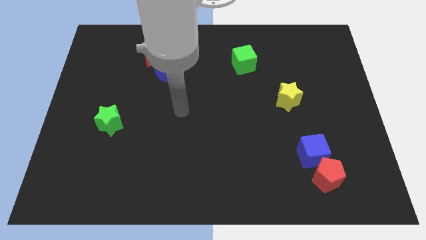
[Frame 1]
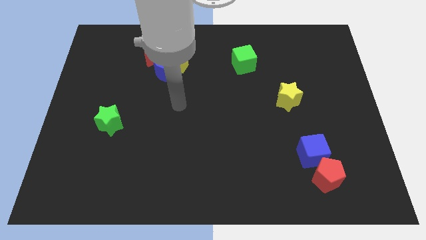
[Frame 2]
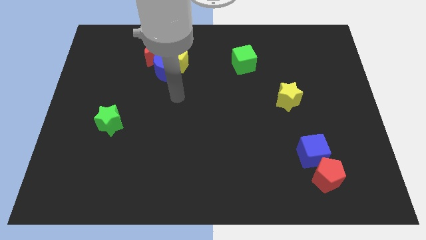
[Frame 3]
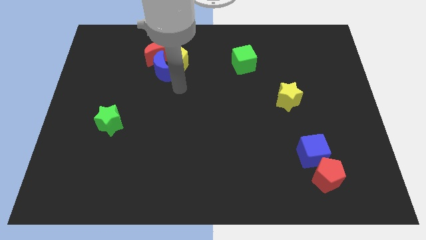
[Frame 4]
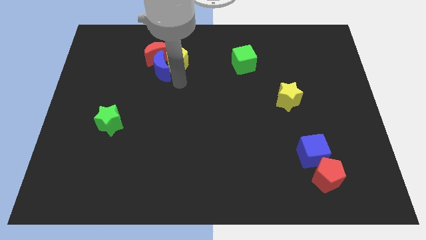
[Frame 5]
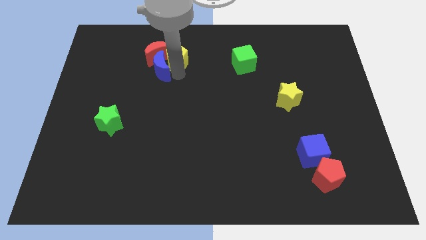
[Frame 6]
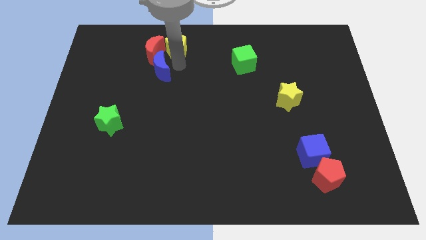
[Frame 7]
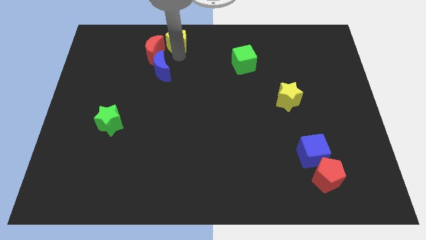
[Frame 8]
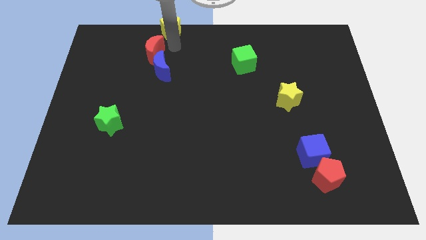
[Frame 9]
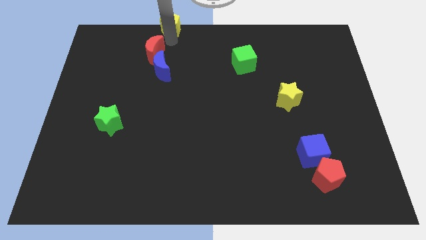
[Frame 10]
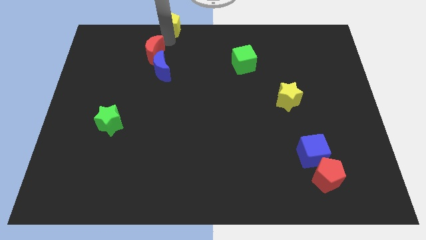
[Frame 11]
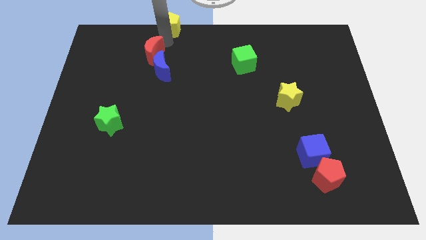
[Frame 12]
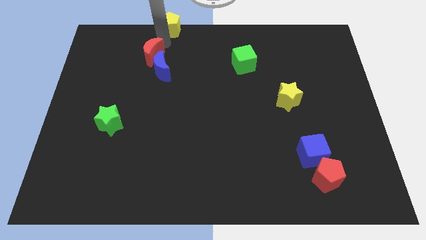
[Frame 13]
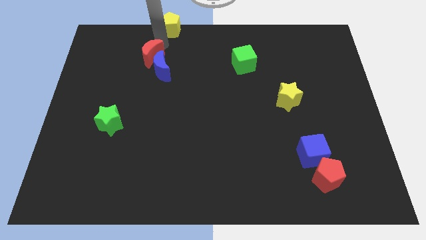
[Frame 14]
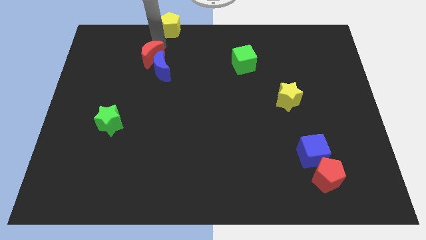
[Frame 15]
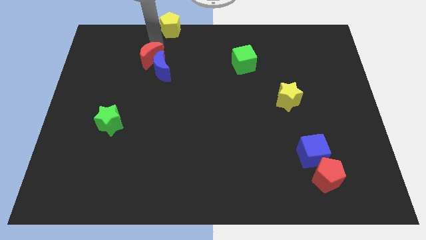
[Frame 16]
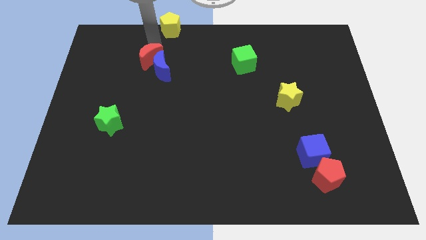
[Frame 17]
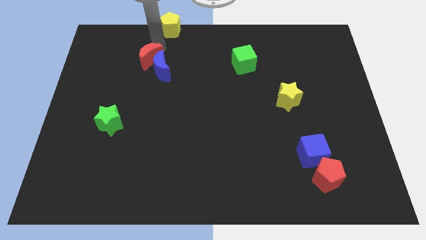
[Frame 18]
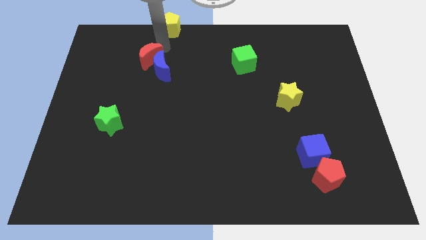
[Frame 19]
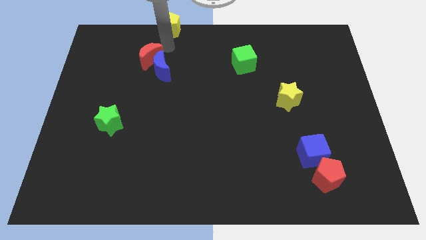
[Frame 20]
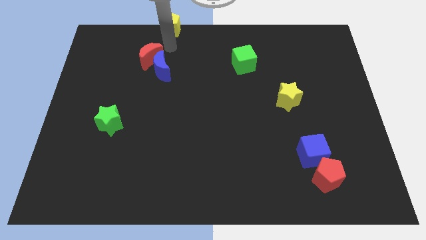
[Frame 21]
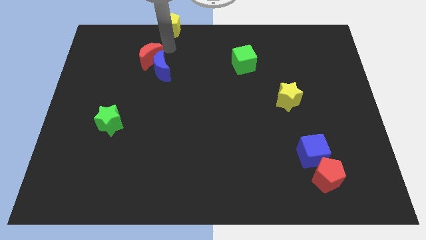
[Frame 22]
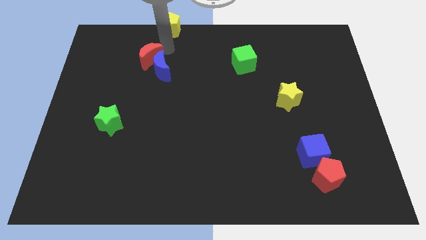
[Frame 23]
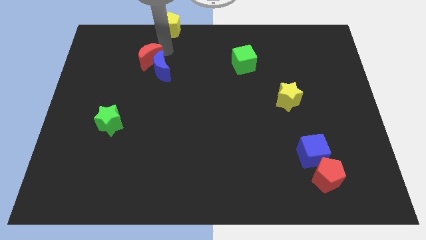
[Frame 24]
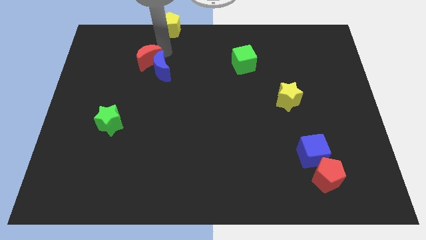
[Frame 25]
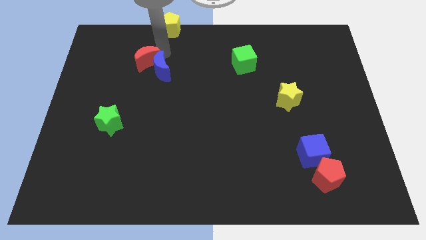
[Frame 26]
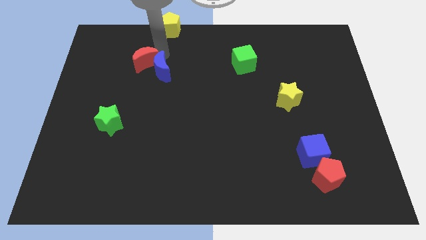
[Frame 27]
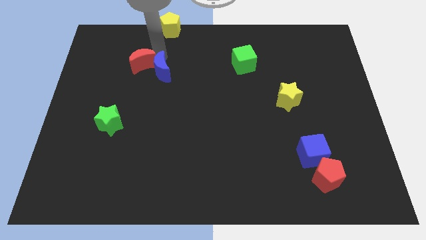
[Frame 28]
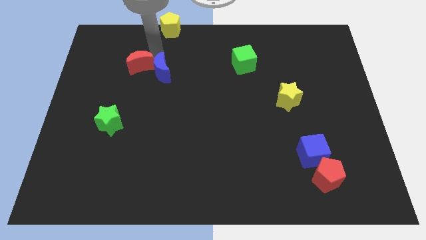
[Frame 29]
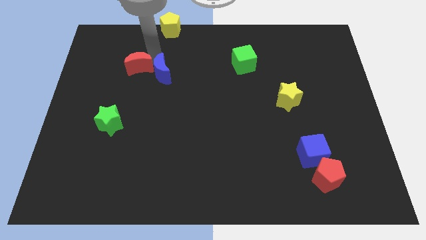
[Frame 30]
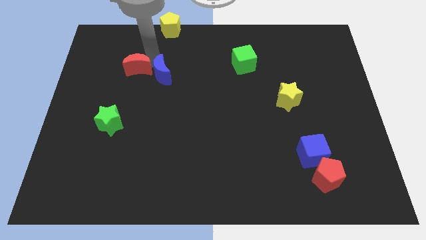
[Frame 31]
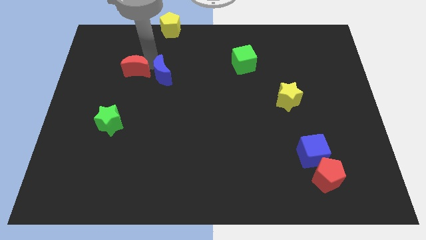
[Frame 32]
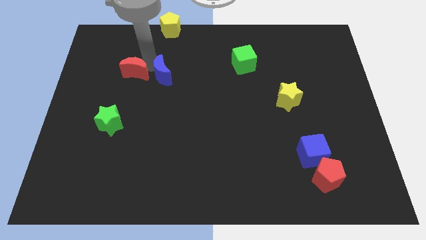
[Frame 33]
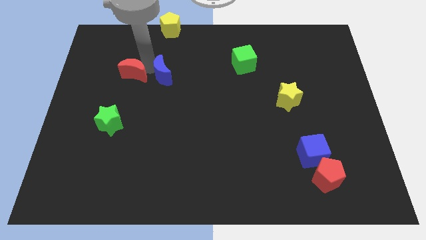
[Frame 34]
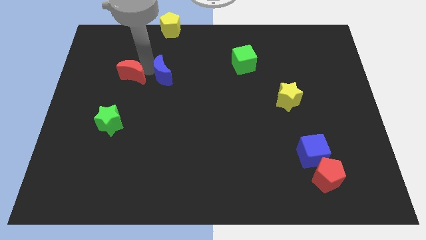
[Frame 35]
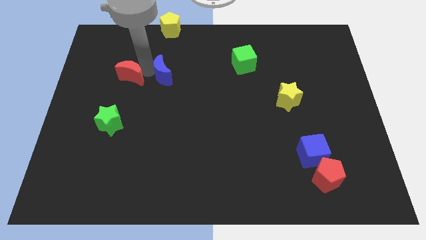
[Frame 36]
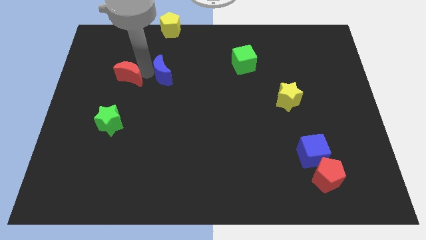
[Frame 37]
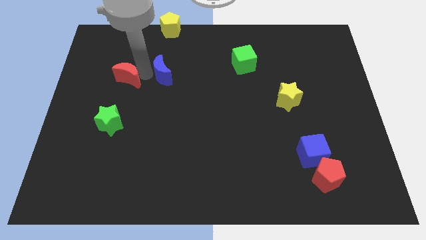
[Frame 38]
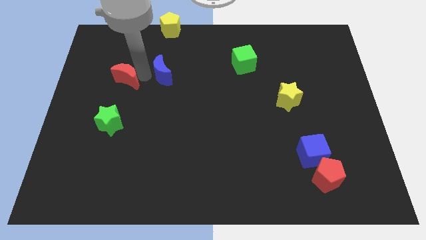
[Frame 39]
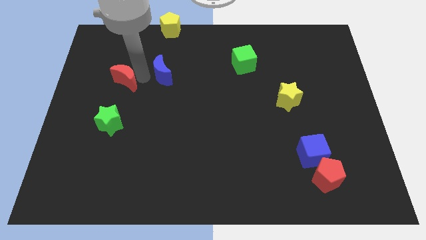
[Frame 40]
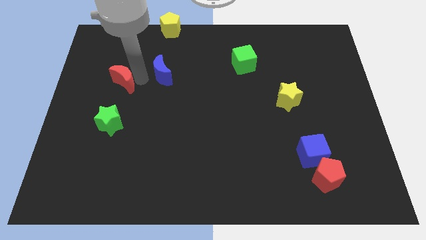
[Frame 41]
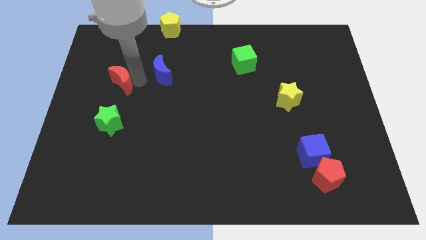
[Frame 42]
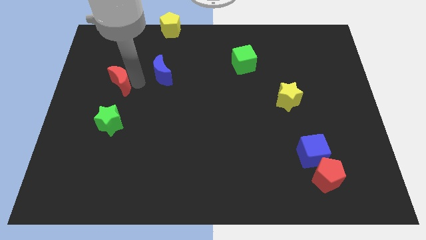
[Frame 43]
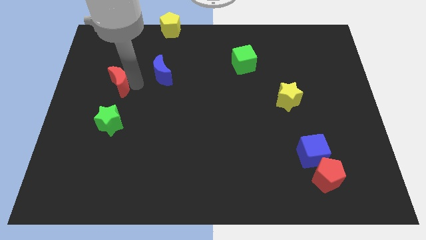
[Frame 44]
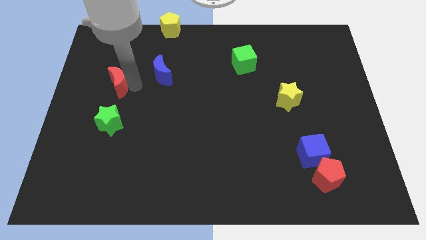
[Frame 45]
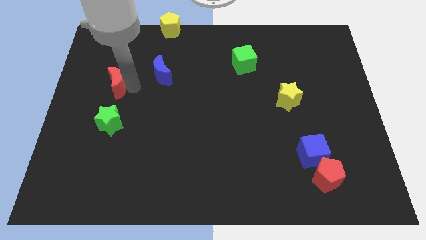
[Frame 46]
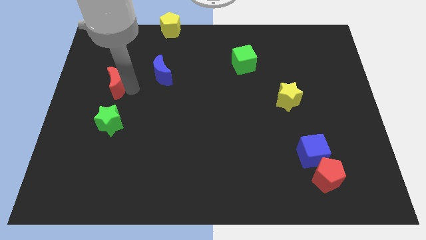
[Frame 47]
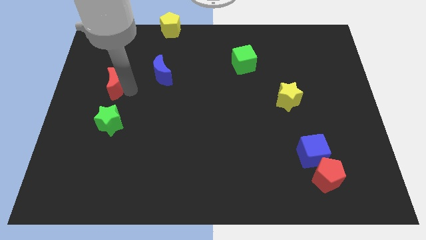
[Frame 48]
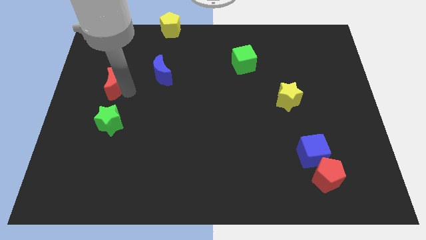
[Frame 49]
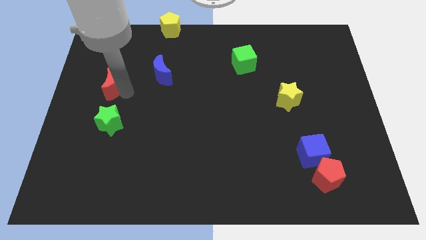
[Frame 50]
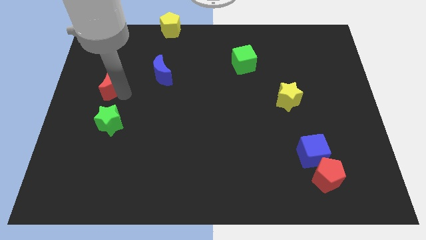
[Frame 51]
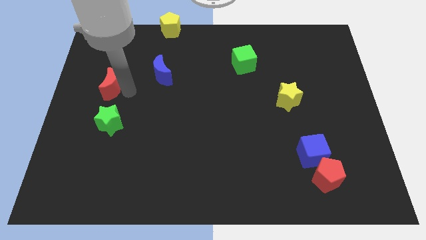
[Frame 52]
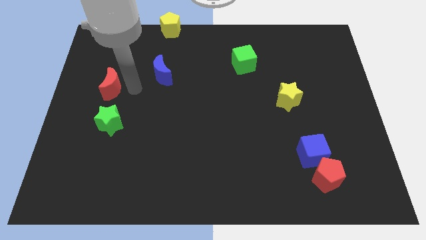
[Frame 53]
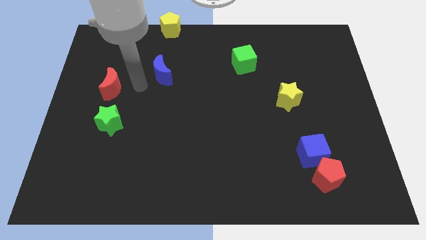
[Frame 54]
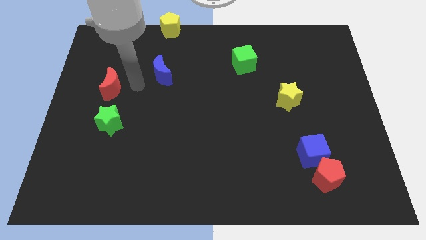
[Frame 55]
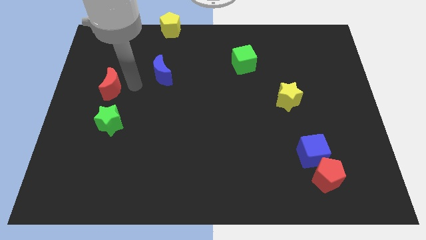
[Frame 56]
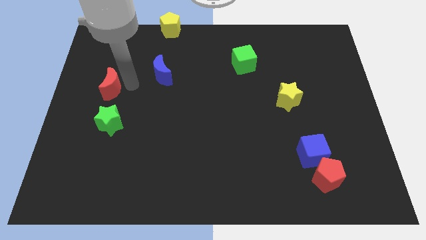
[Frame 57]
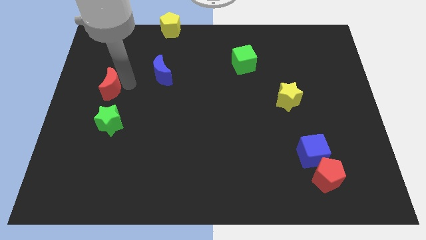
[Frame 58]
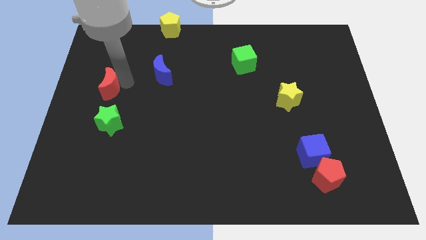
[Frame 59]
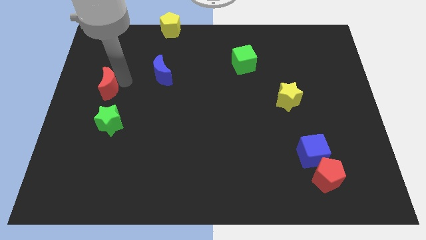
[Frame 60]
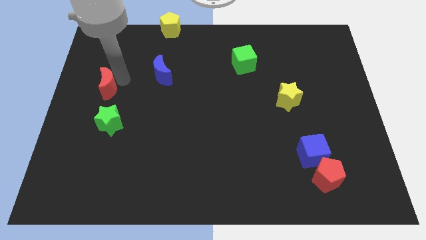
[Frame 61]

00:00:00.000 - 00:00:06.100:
put the red moon to the left side of the board

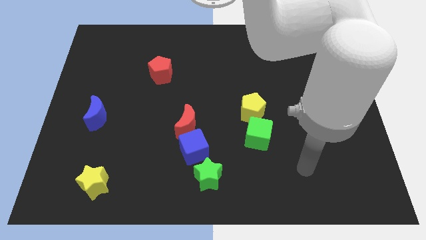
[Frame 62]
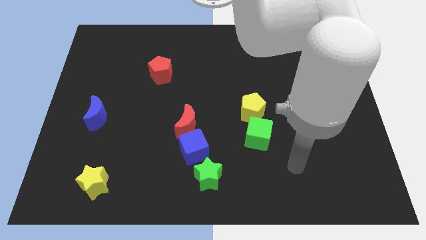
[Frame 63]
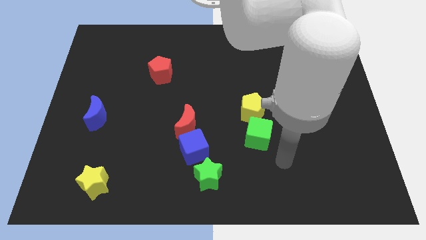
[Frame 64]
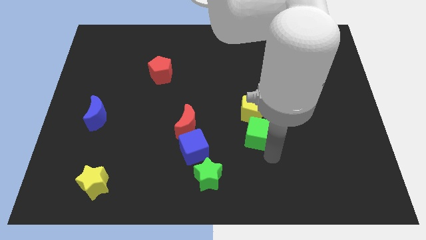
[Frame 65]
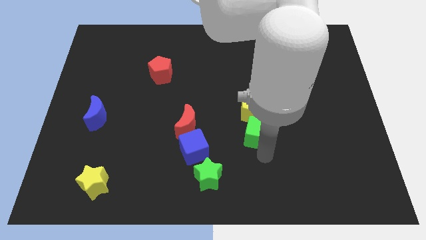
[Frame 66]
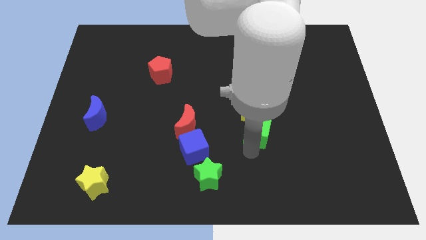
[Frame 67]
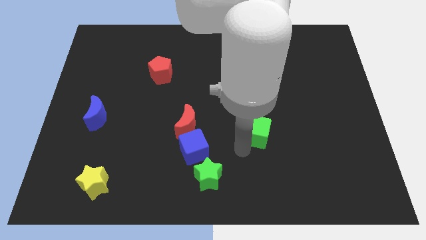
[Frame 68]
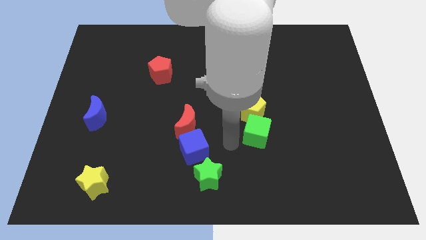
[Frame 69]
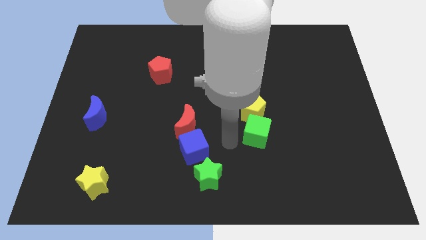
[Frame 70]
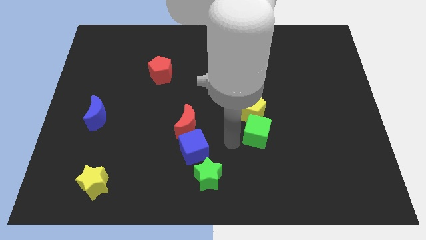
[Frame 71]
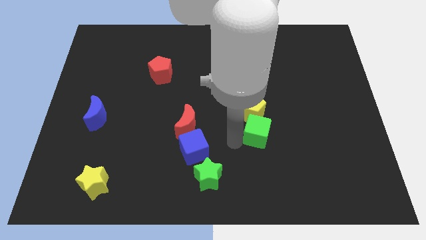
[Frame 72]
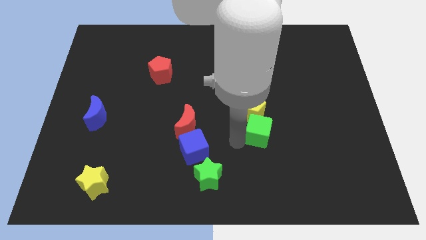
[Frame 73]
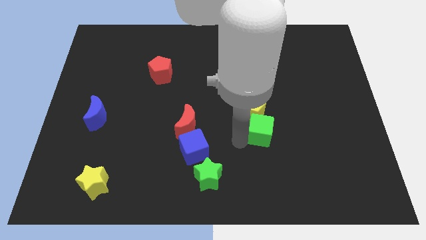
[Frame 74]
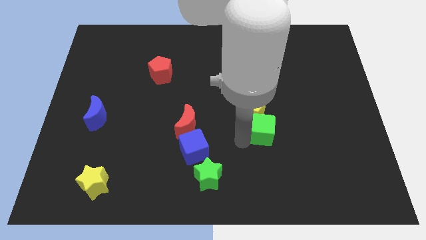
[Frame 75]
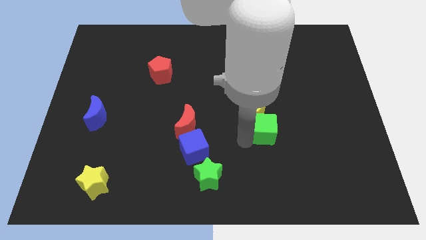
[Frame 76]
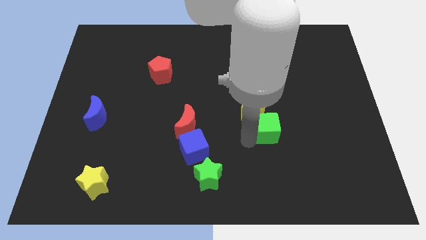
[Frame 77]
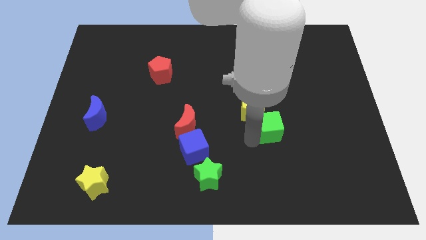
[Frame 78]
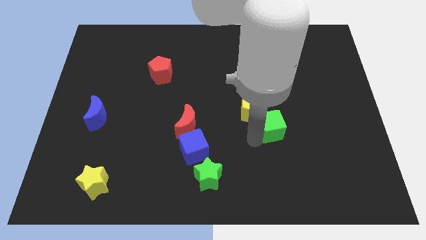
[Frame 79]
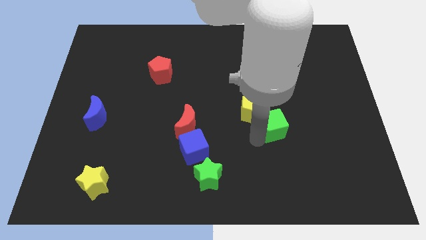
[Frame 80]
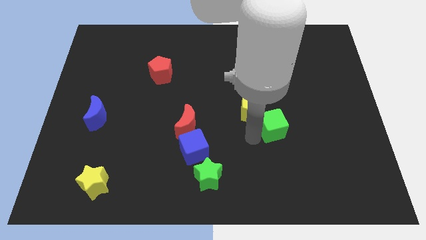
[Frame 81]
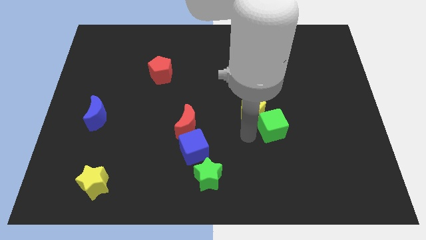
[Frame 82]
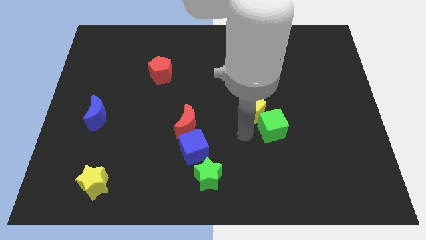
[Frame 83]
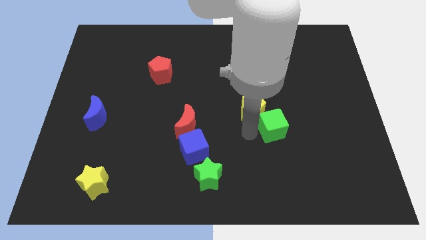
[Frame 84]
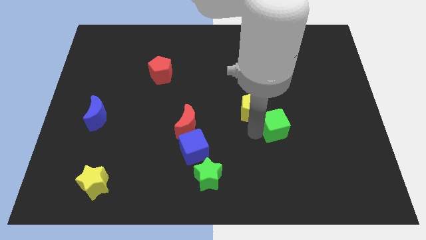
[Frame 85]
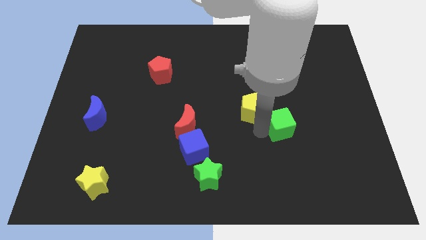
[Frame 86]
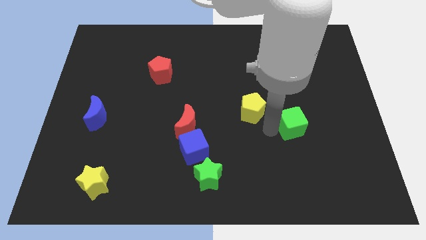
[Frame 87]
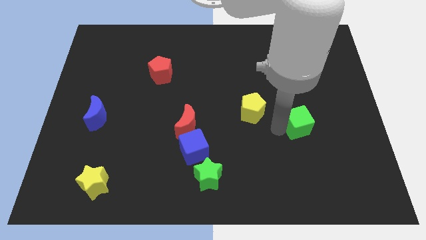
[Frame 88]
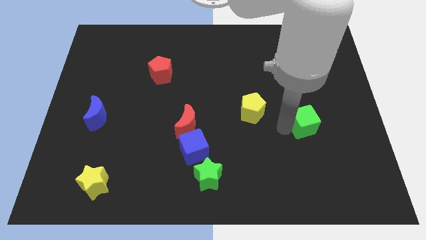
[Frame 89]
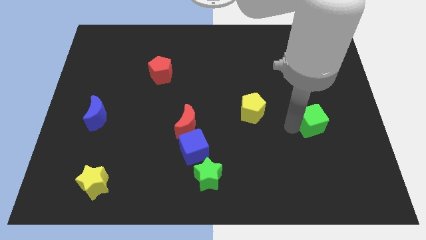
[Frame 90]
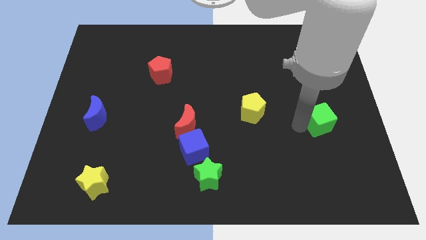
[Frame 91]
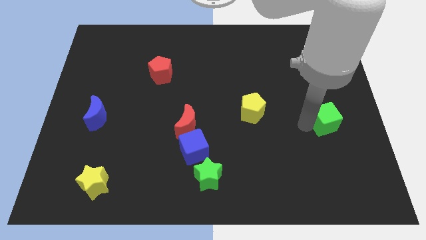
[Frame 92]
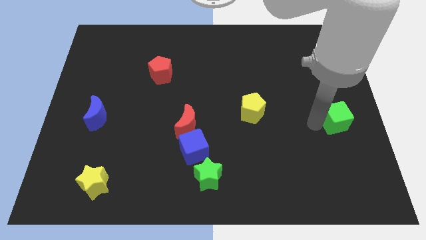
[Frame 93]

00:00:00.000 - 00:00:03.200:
push the green cube to the center right
